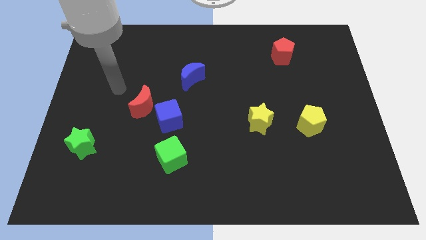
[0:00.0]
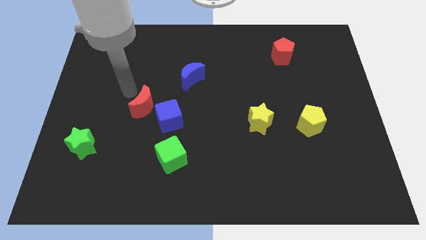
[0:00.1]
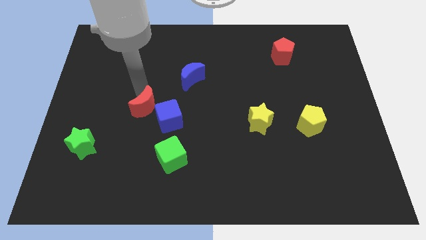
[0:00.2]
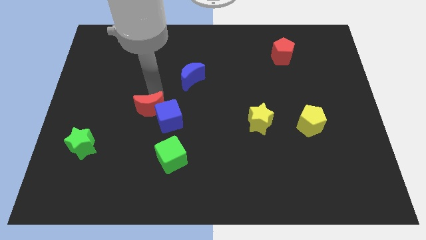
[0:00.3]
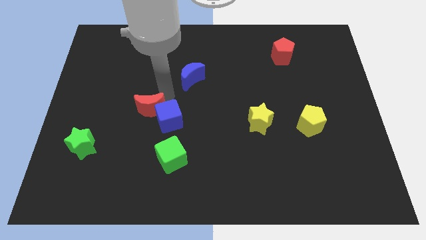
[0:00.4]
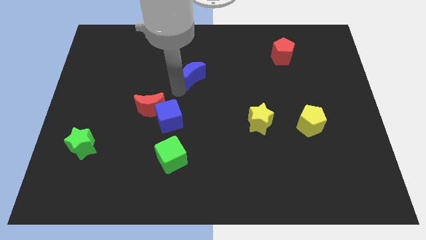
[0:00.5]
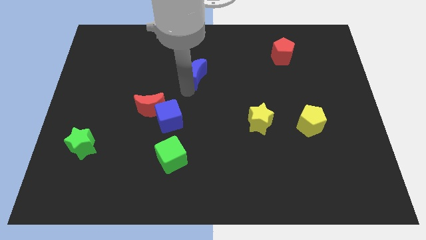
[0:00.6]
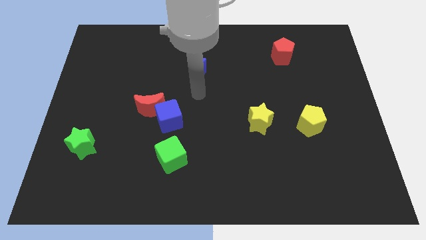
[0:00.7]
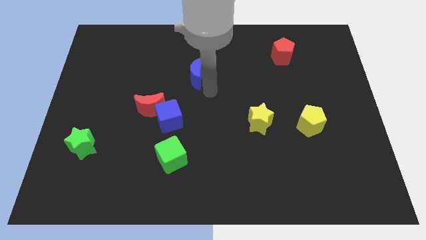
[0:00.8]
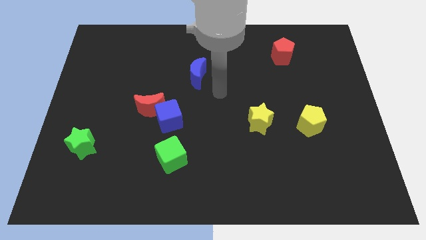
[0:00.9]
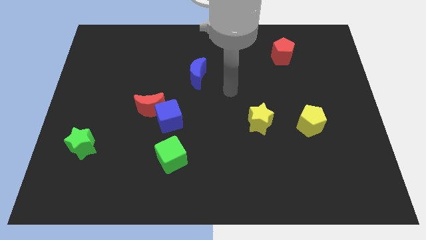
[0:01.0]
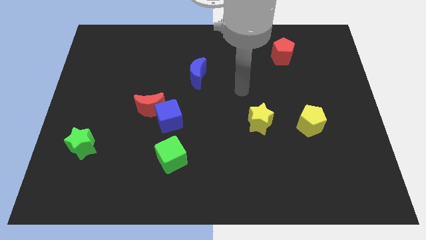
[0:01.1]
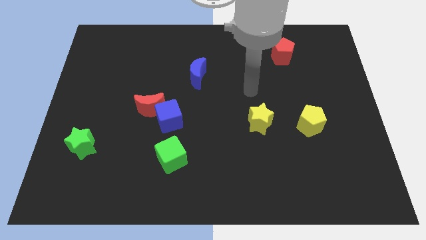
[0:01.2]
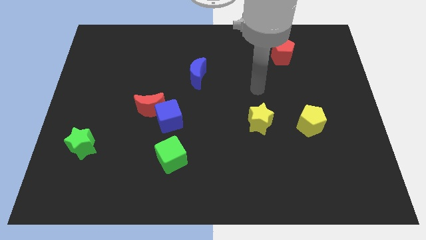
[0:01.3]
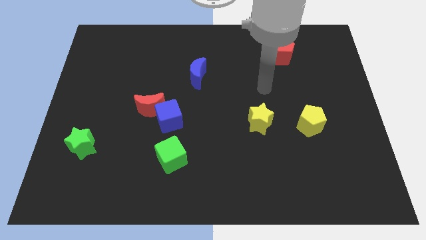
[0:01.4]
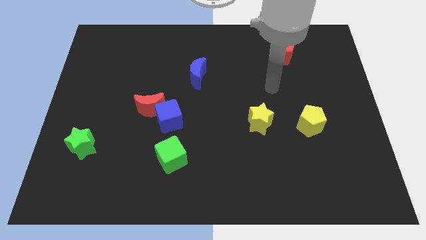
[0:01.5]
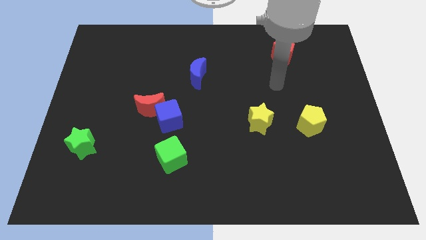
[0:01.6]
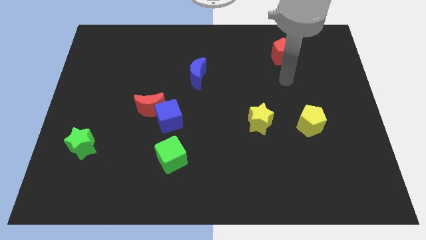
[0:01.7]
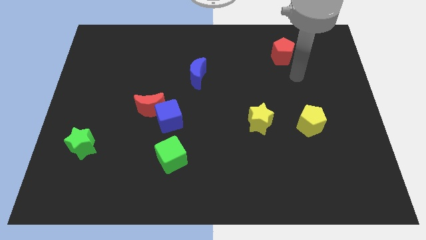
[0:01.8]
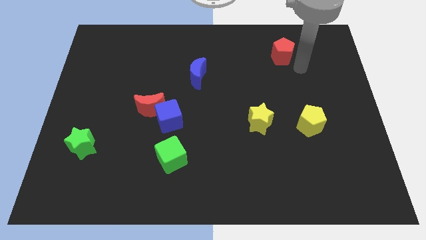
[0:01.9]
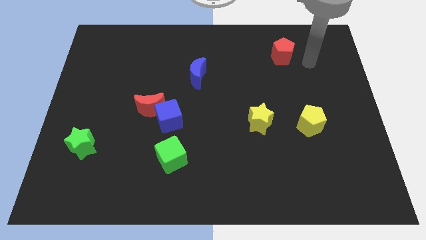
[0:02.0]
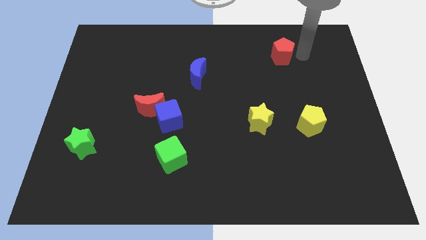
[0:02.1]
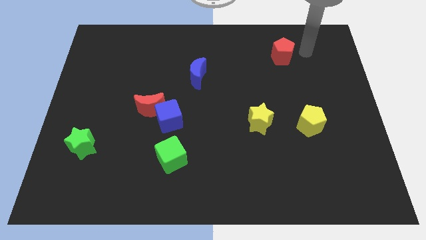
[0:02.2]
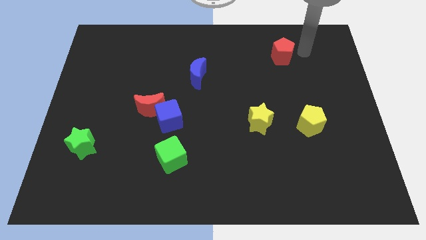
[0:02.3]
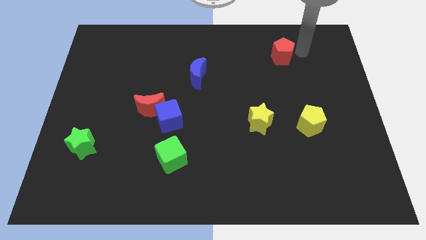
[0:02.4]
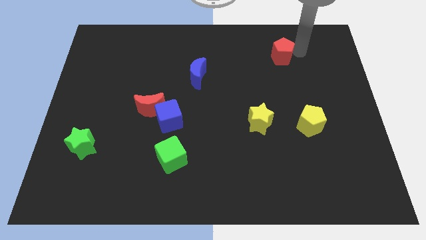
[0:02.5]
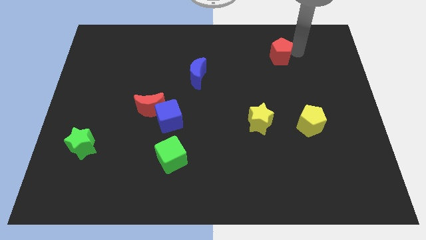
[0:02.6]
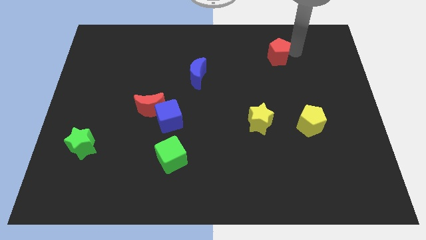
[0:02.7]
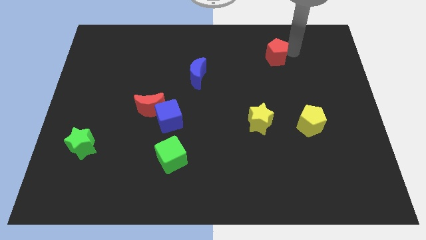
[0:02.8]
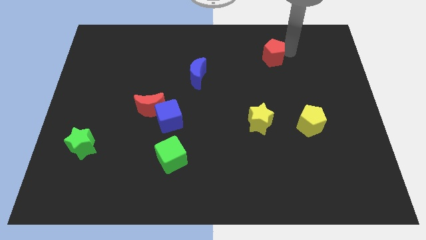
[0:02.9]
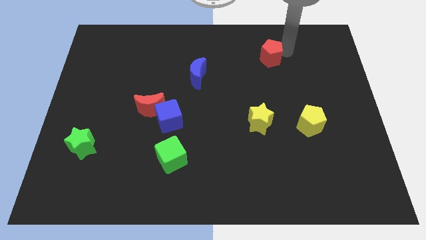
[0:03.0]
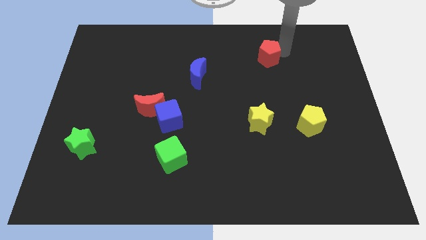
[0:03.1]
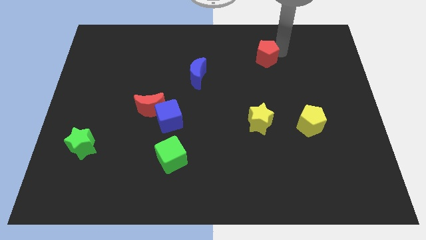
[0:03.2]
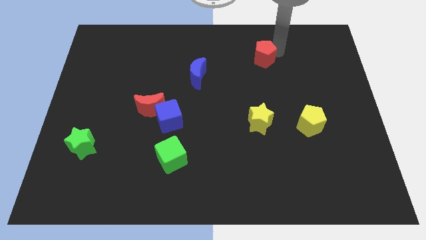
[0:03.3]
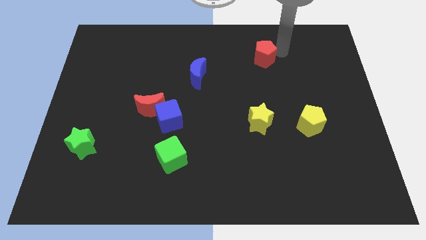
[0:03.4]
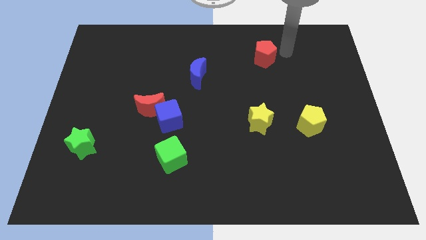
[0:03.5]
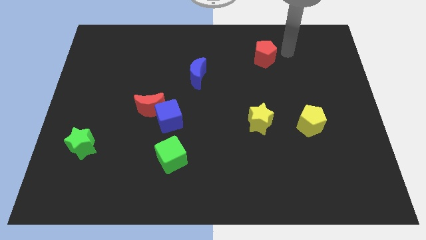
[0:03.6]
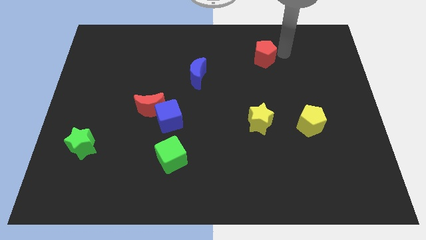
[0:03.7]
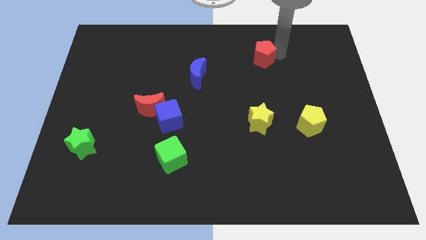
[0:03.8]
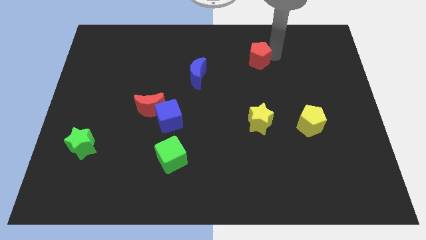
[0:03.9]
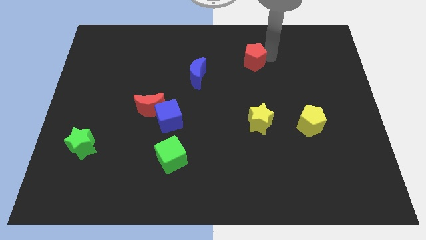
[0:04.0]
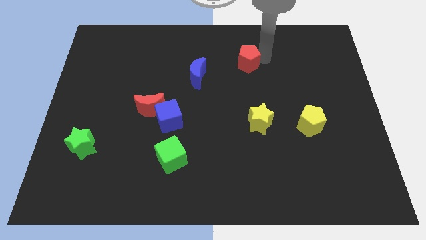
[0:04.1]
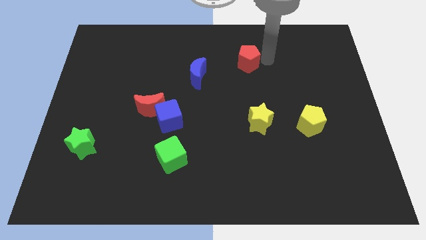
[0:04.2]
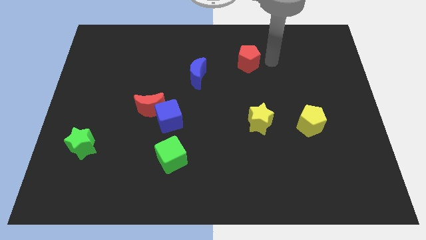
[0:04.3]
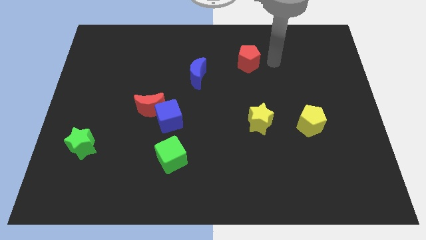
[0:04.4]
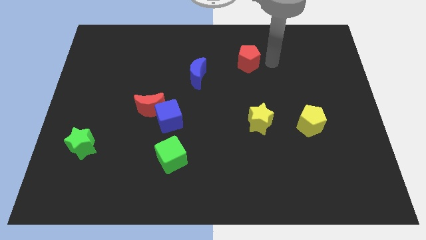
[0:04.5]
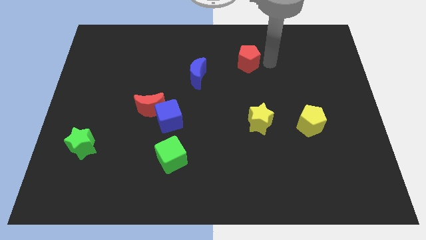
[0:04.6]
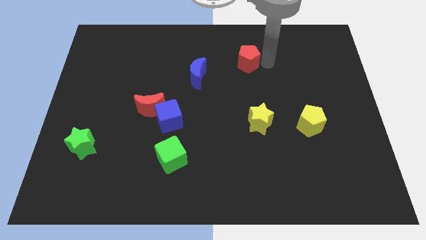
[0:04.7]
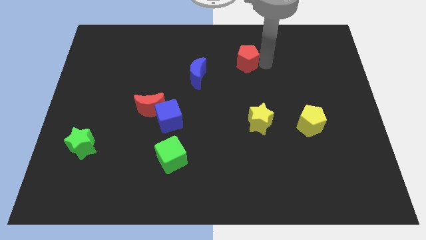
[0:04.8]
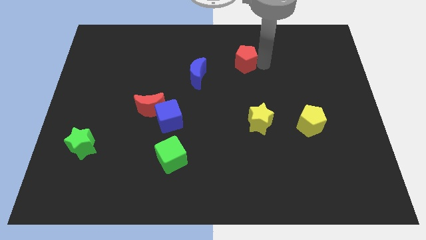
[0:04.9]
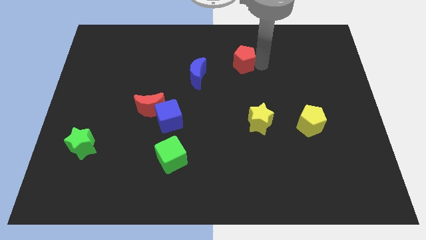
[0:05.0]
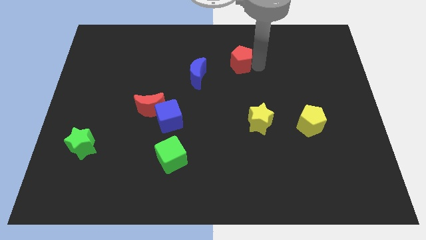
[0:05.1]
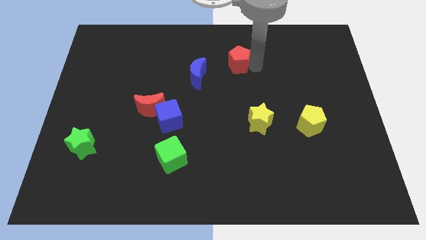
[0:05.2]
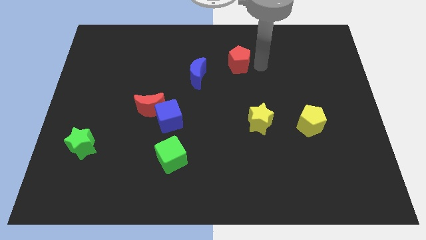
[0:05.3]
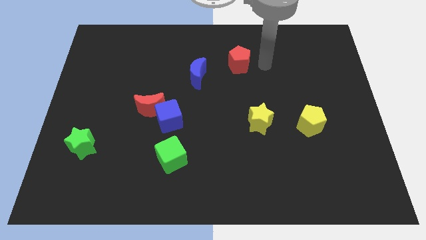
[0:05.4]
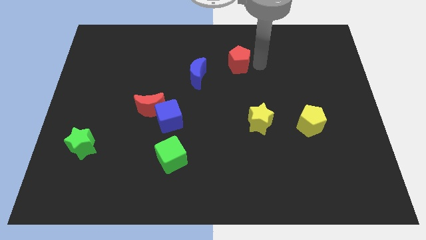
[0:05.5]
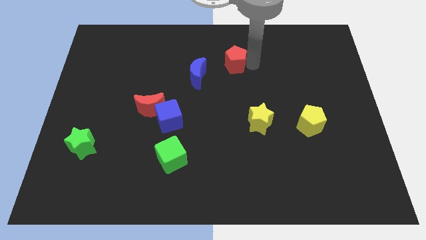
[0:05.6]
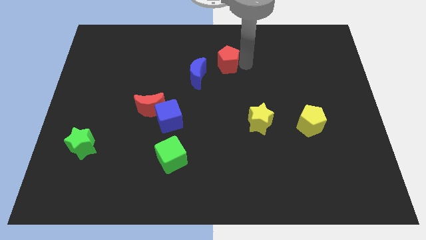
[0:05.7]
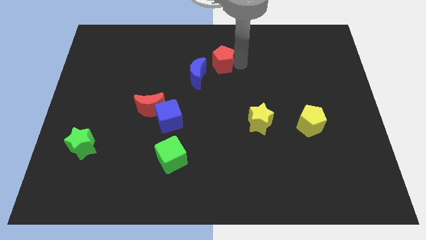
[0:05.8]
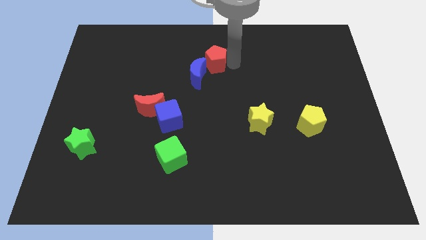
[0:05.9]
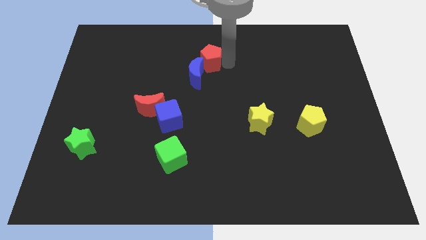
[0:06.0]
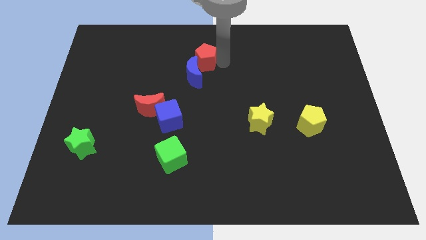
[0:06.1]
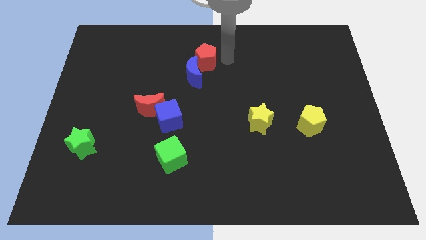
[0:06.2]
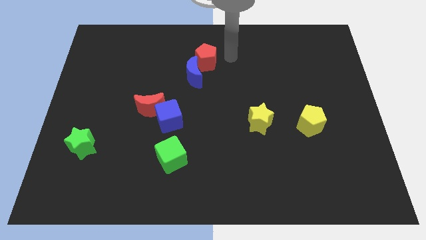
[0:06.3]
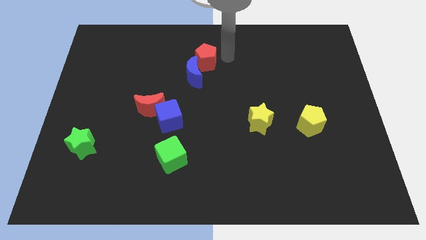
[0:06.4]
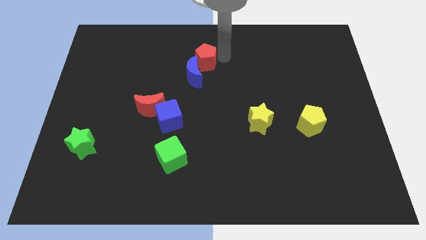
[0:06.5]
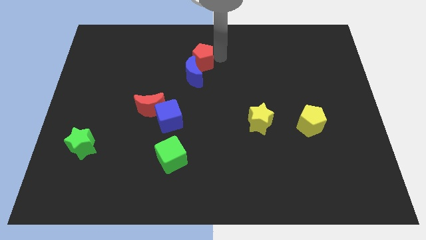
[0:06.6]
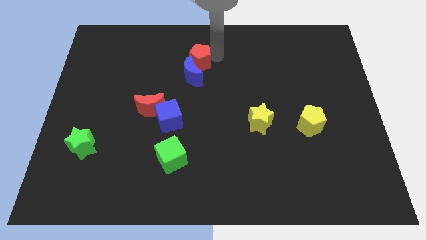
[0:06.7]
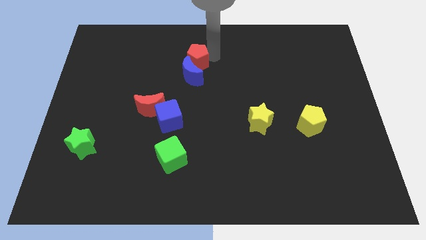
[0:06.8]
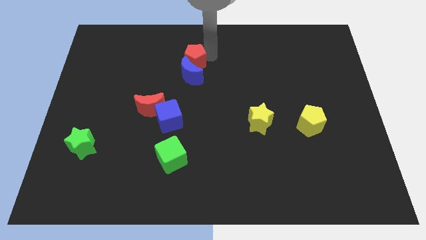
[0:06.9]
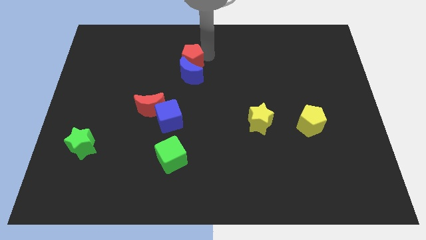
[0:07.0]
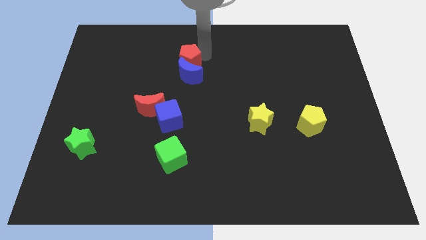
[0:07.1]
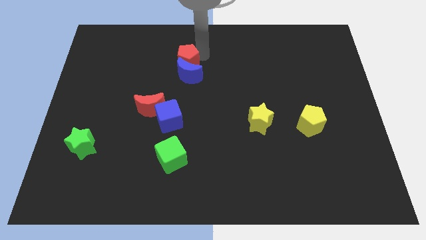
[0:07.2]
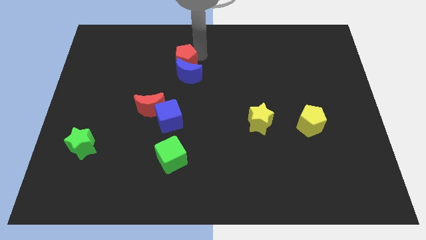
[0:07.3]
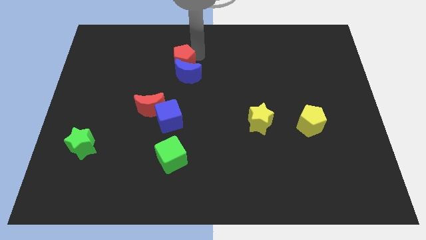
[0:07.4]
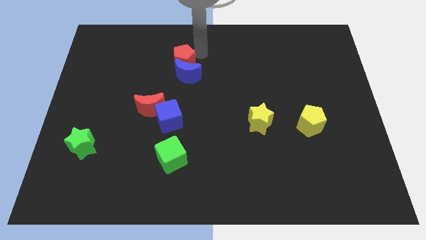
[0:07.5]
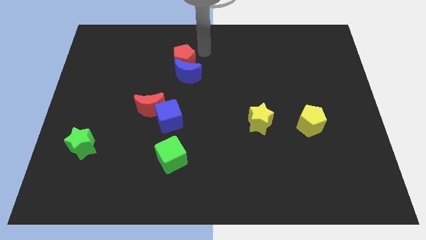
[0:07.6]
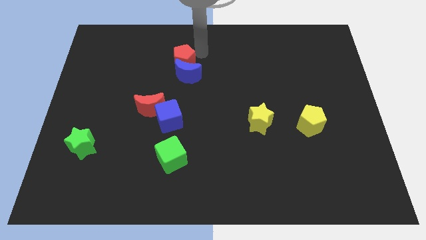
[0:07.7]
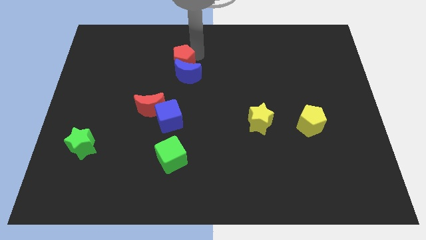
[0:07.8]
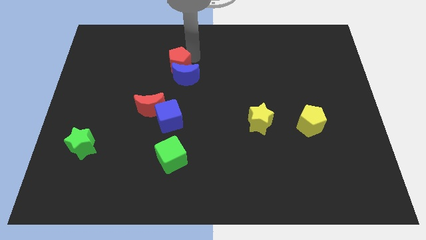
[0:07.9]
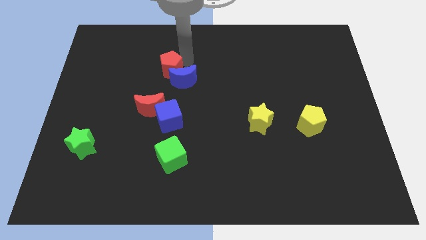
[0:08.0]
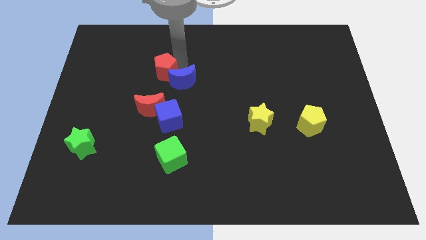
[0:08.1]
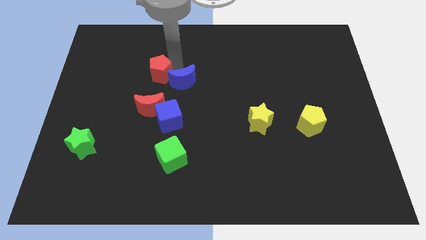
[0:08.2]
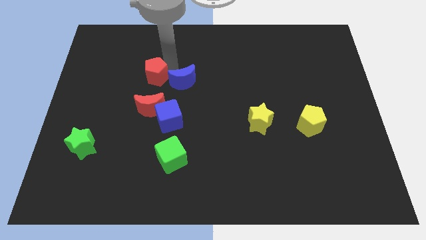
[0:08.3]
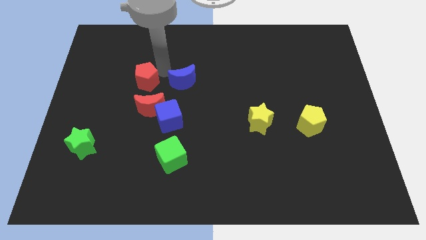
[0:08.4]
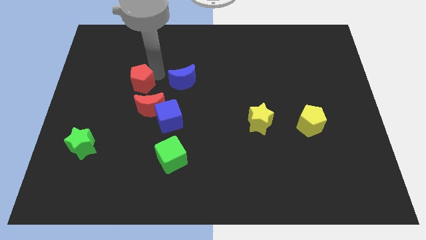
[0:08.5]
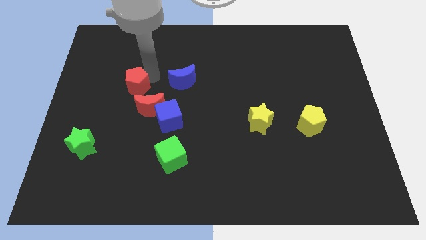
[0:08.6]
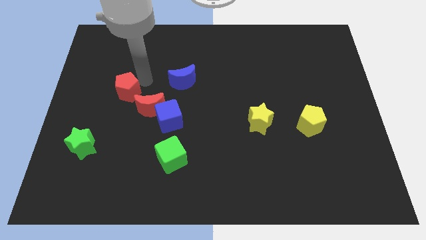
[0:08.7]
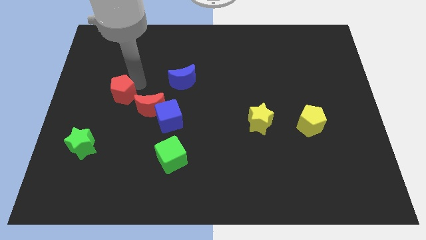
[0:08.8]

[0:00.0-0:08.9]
slide the red pentagon to the left side of the red moon
